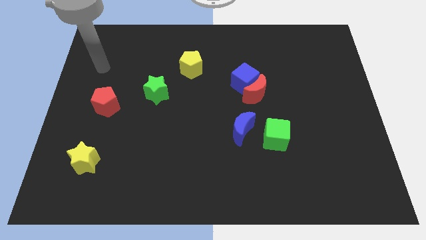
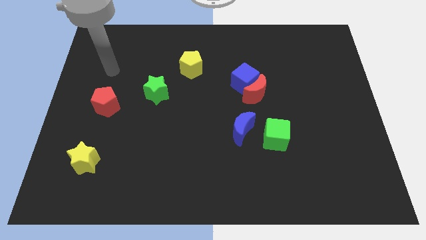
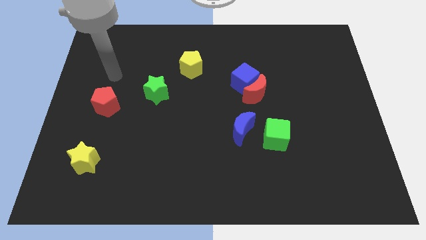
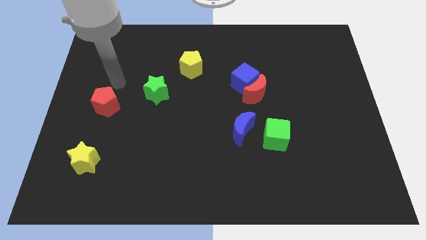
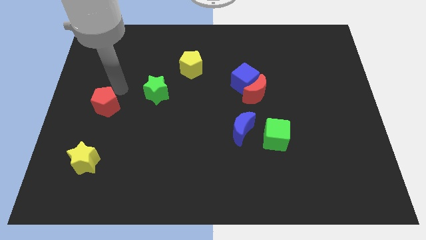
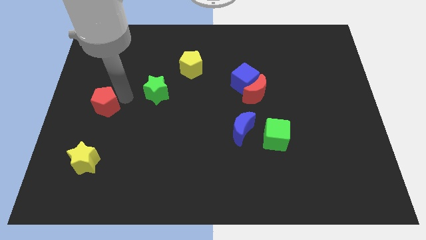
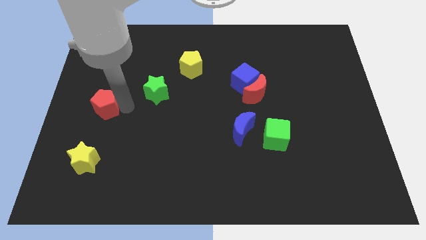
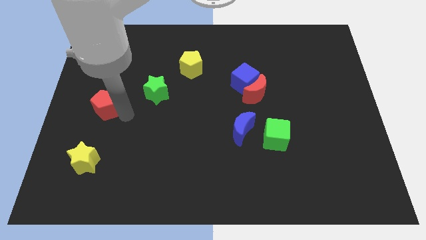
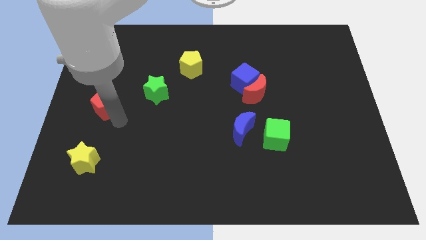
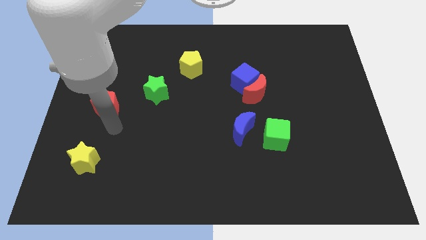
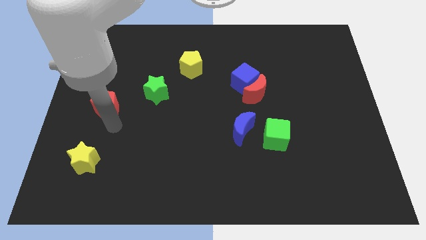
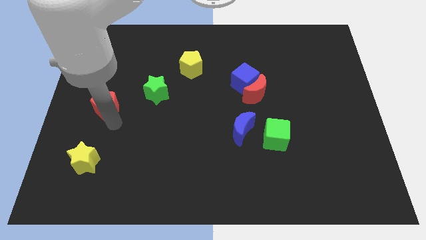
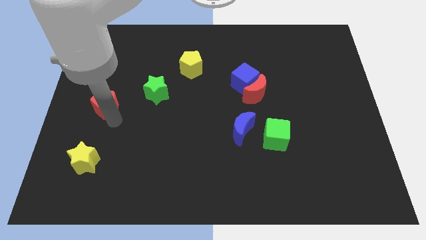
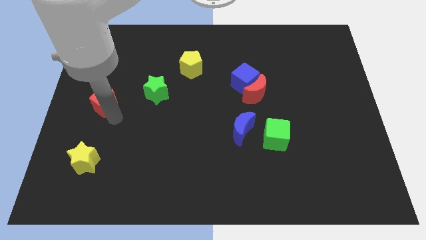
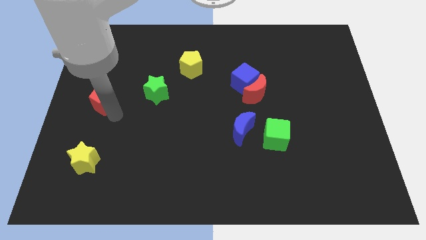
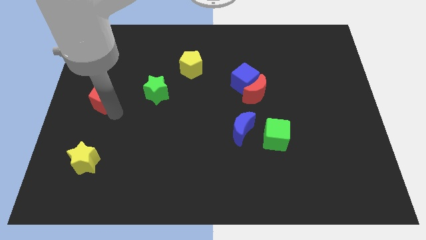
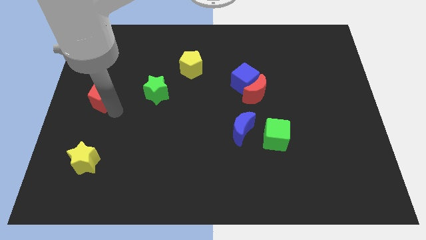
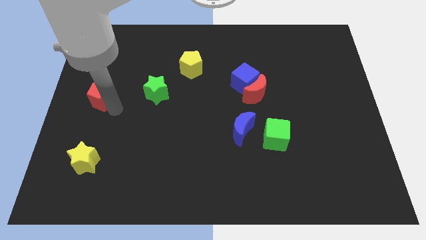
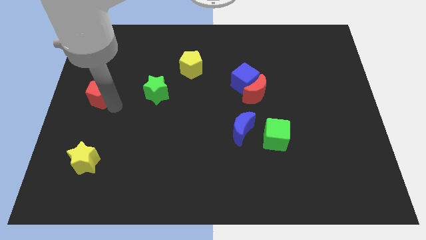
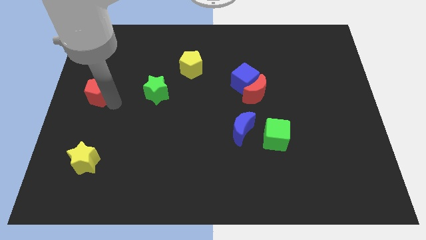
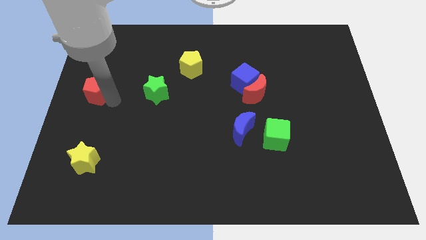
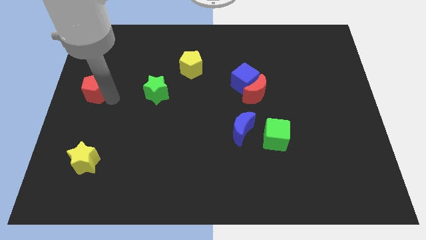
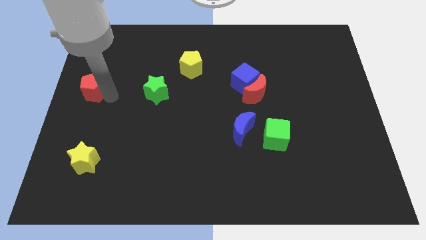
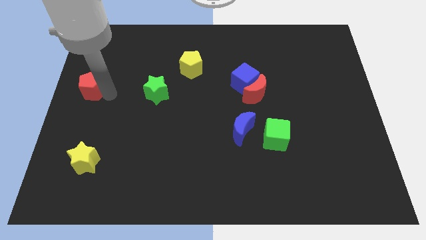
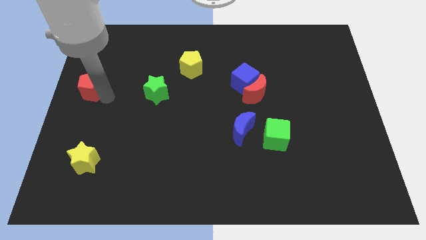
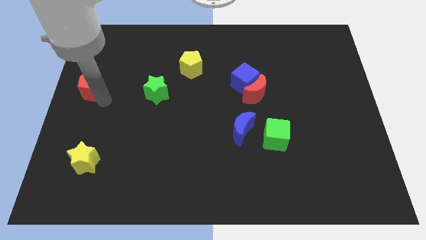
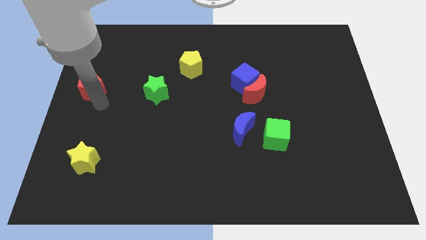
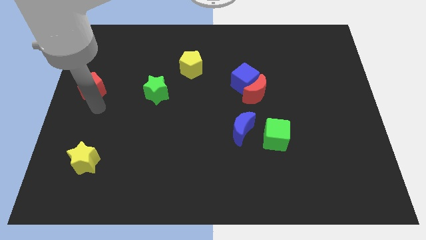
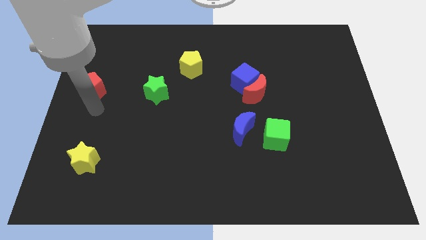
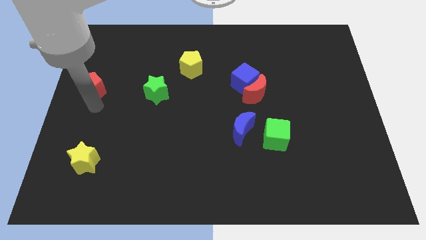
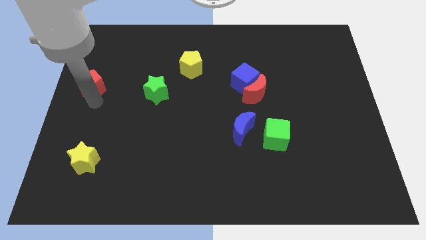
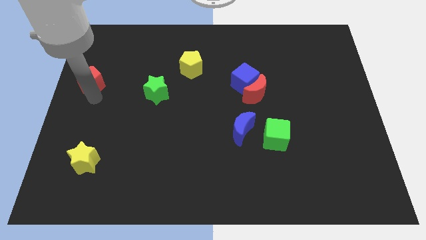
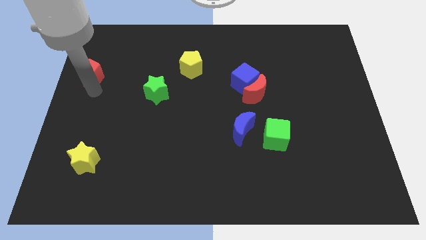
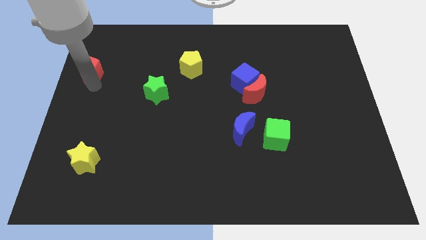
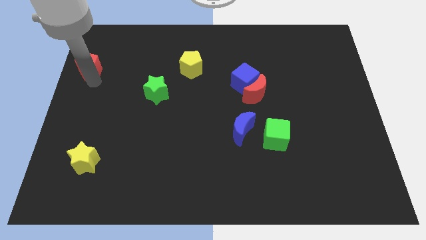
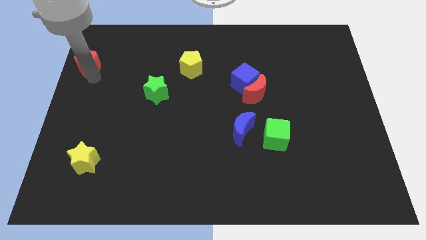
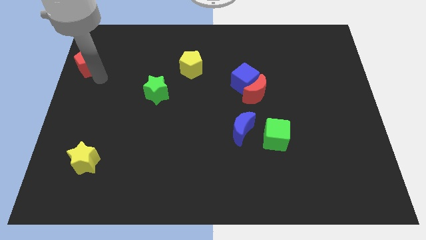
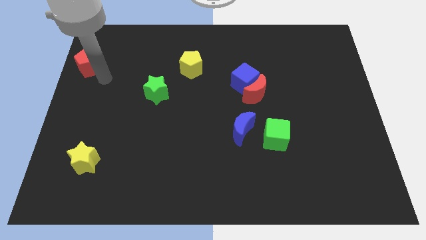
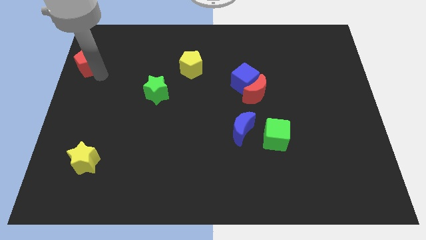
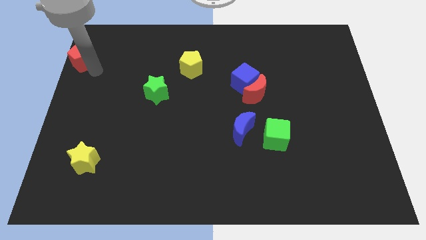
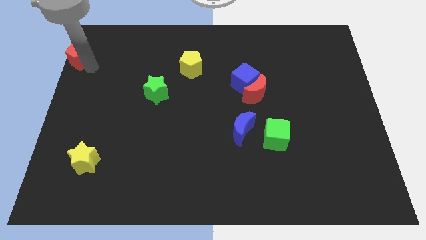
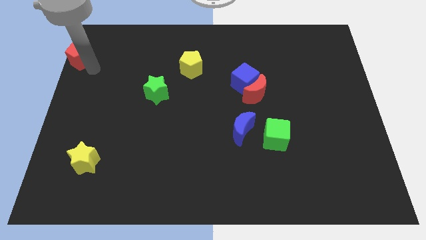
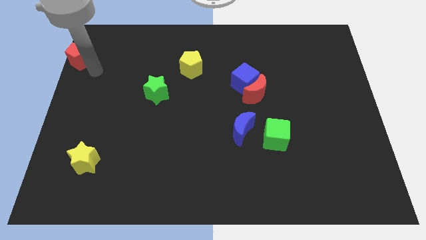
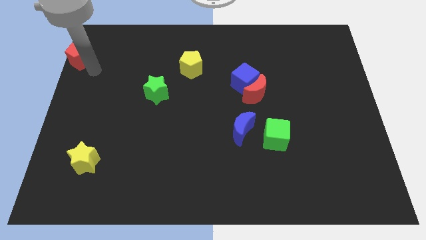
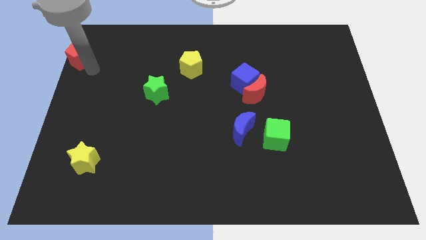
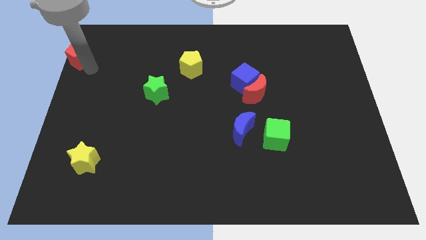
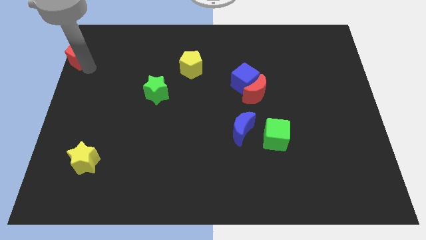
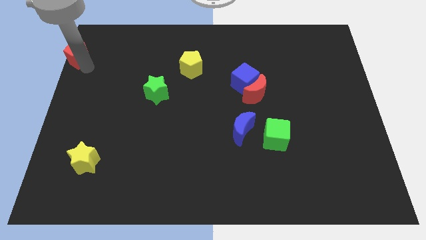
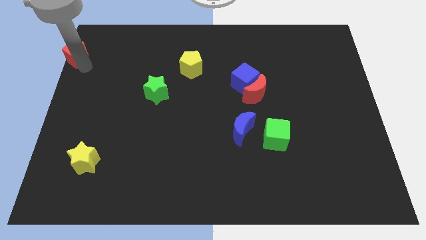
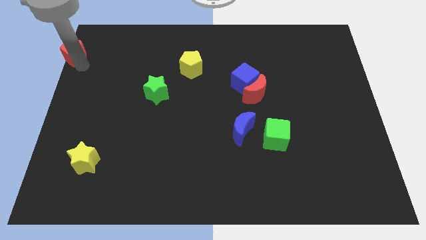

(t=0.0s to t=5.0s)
move the red pentagon to the upper left corner

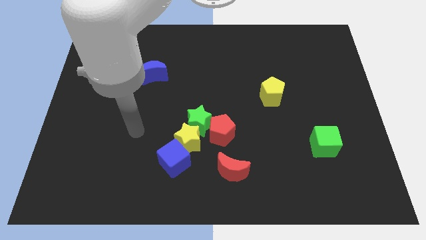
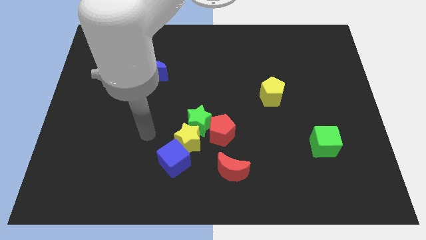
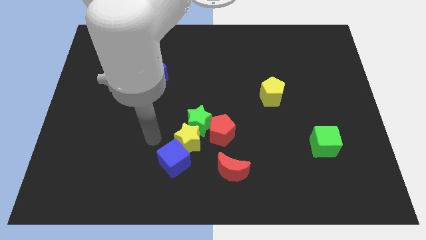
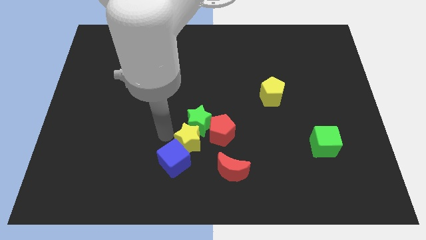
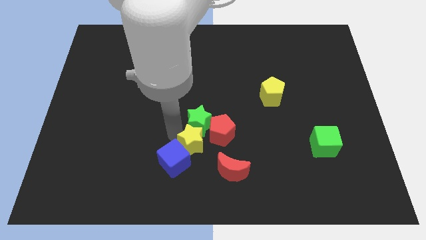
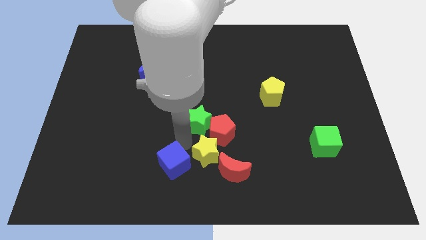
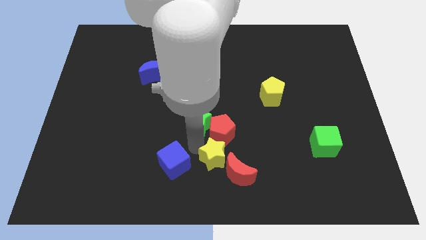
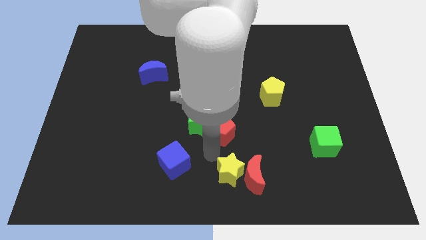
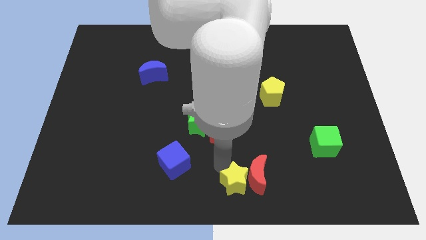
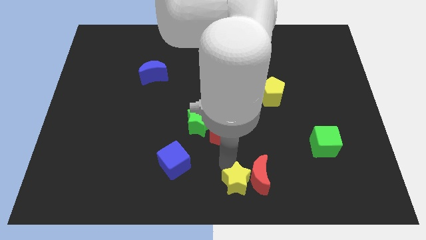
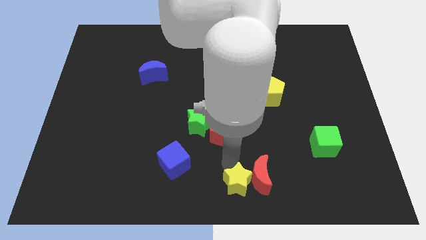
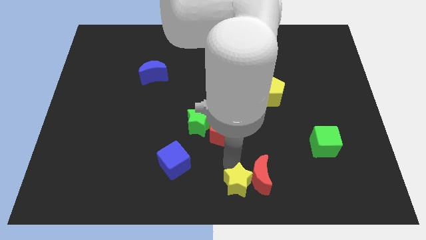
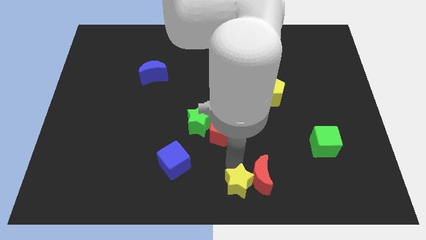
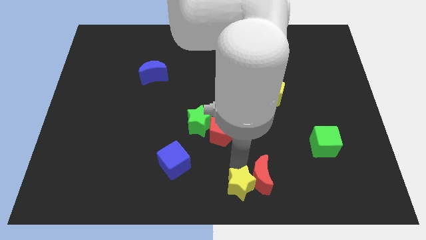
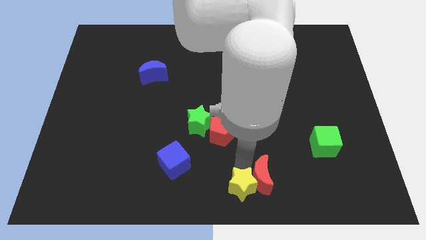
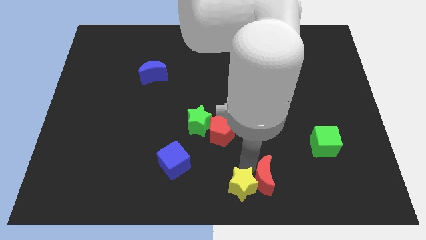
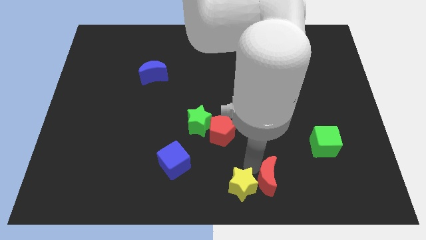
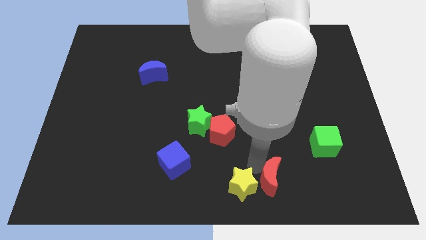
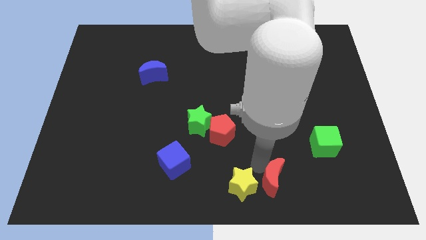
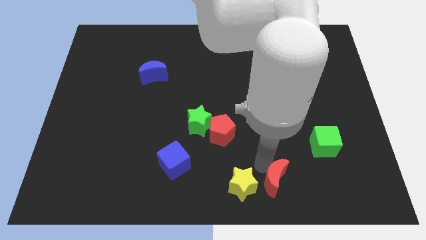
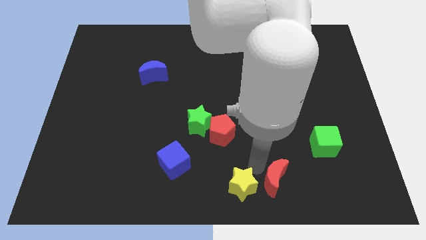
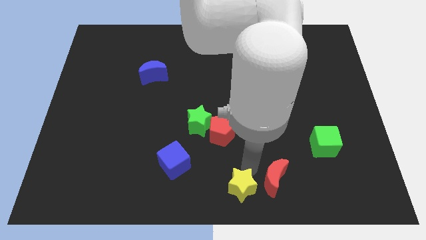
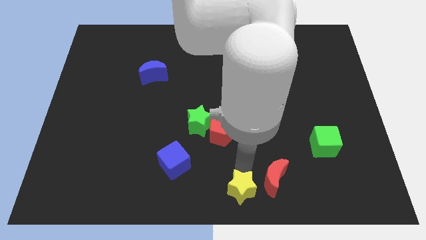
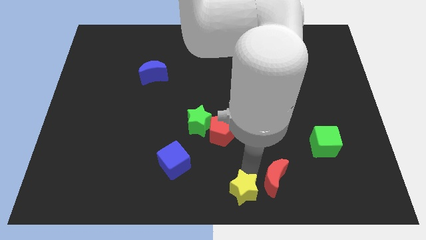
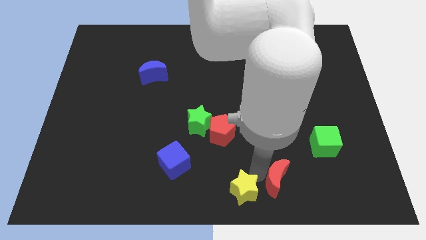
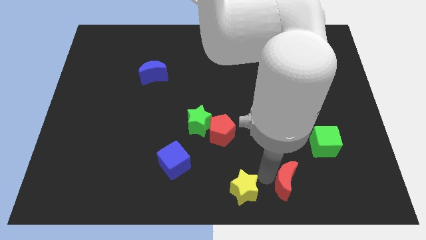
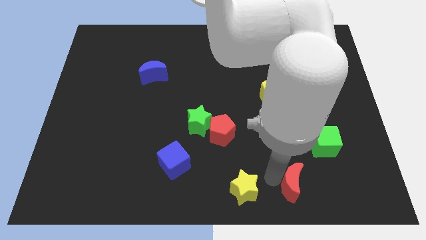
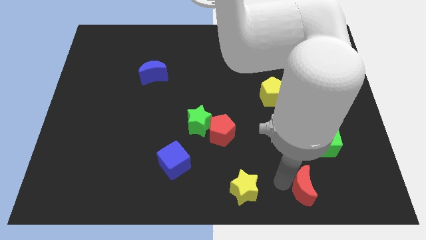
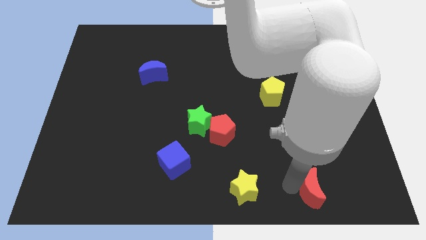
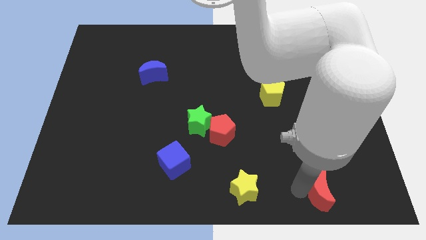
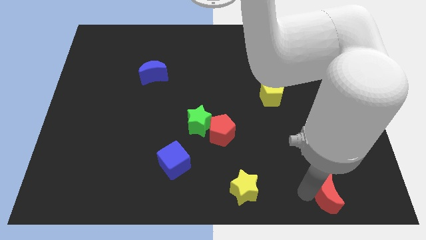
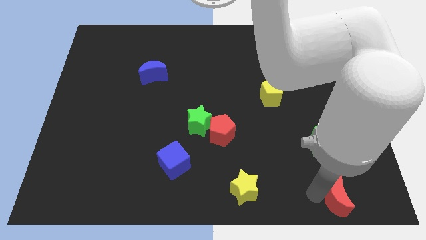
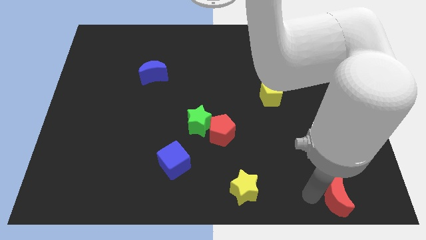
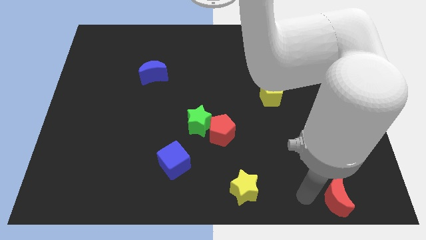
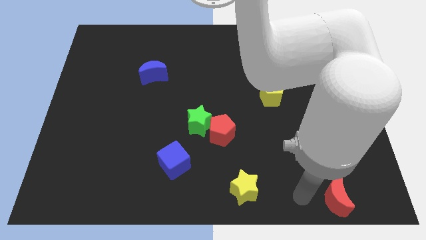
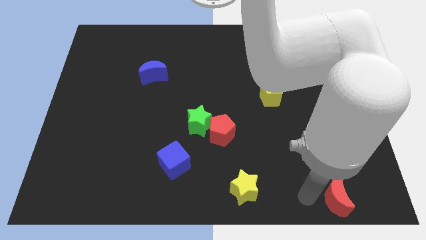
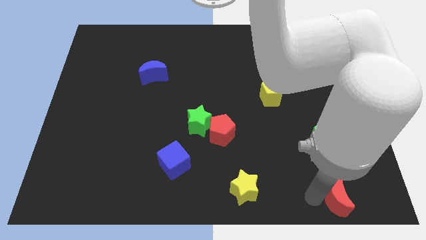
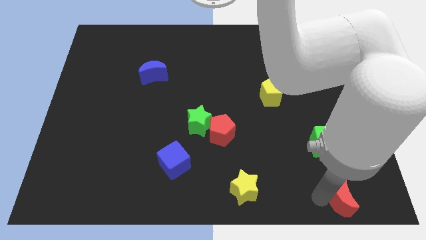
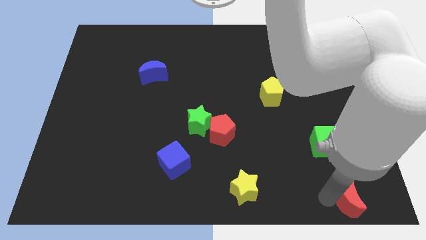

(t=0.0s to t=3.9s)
put the red moon to the bottom right of the board
